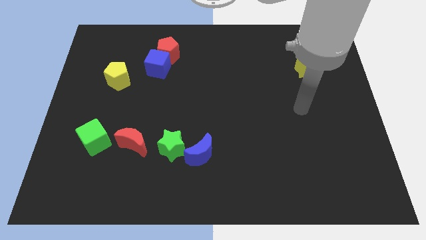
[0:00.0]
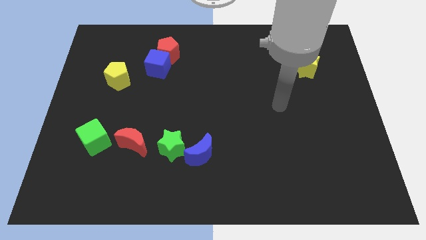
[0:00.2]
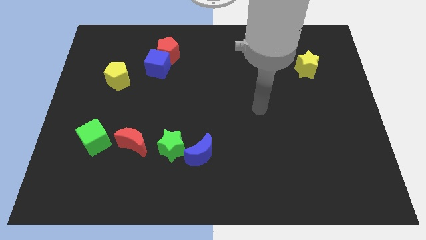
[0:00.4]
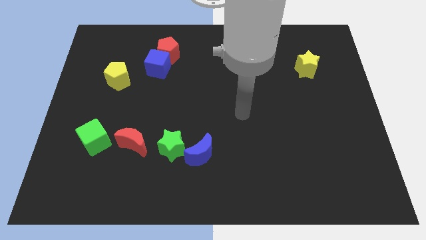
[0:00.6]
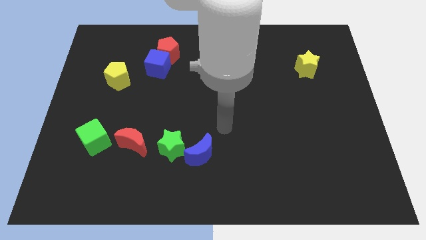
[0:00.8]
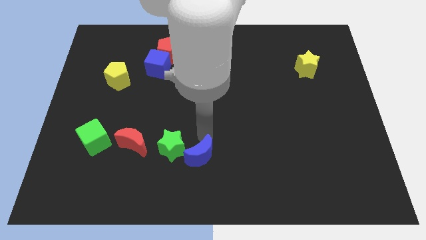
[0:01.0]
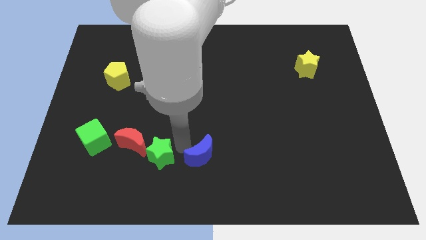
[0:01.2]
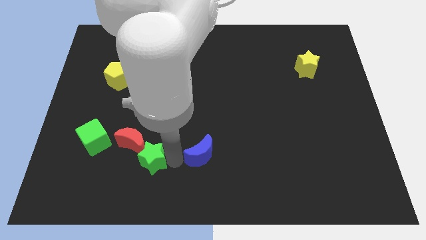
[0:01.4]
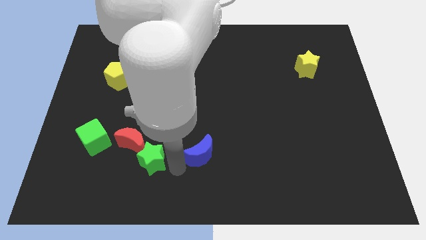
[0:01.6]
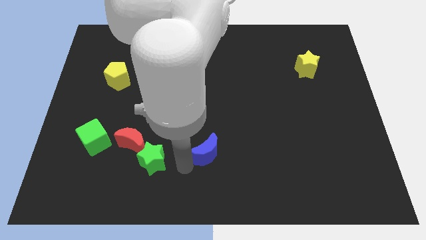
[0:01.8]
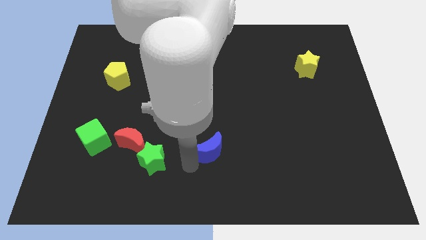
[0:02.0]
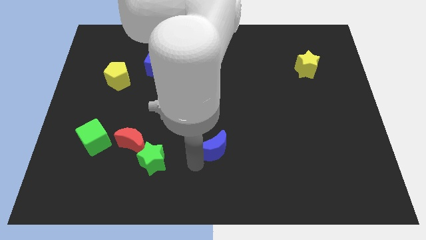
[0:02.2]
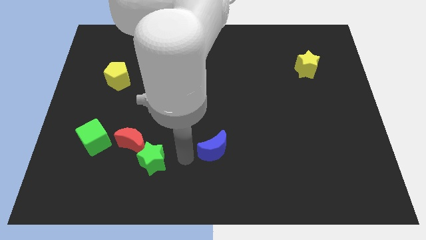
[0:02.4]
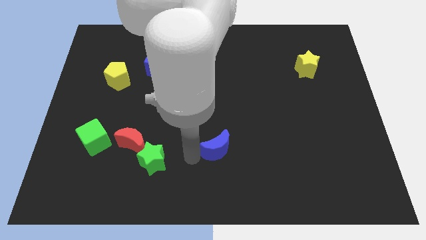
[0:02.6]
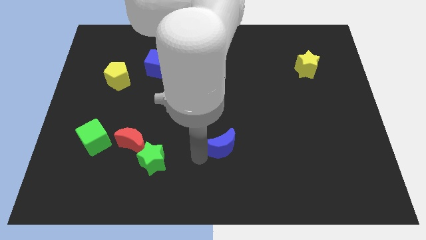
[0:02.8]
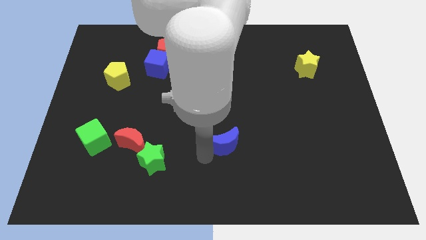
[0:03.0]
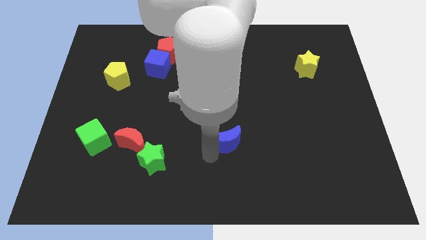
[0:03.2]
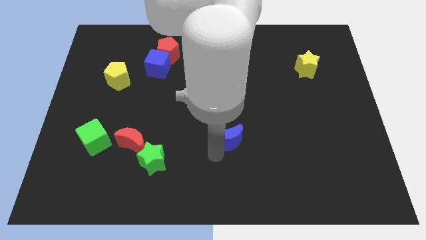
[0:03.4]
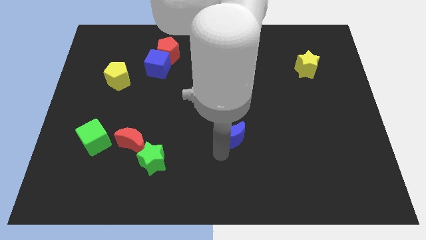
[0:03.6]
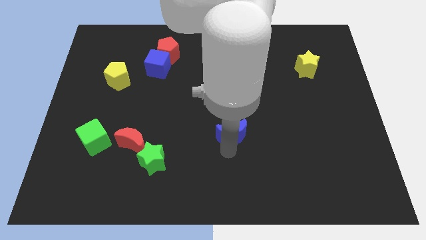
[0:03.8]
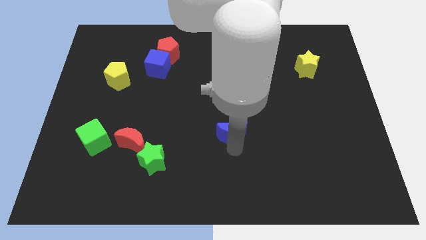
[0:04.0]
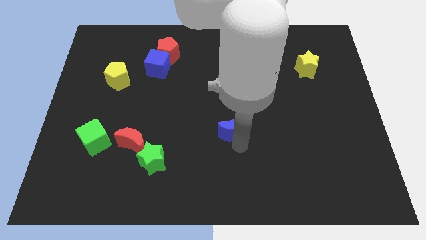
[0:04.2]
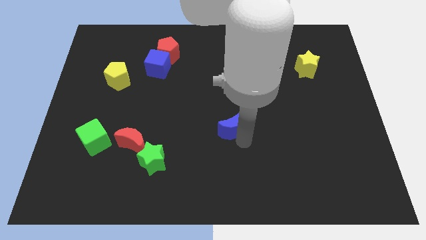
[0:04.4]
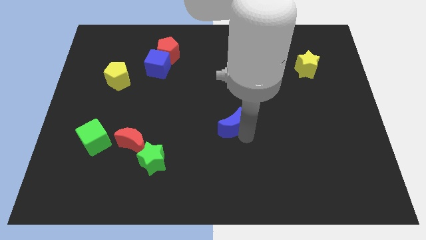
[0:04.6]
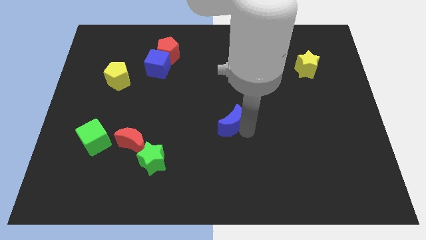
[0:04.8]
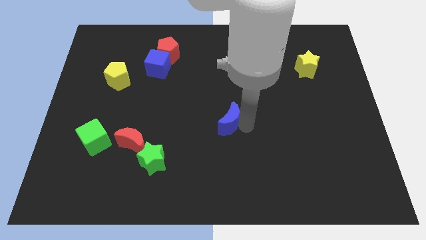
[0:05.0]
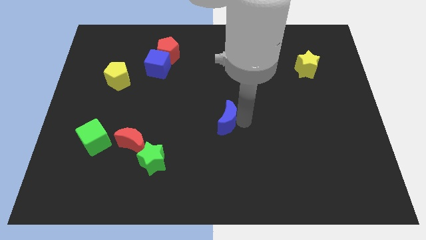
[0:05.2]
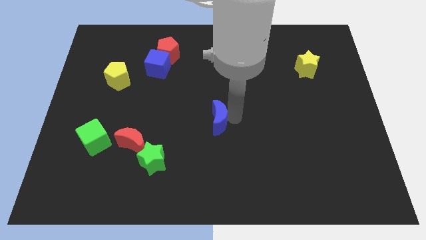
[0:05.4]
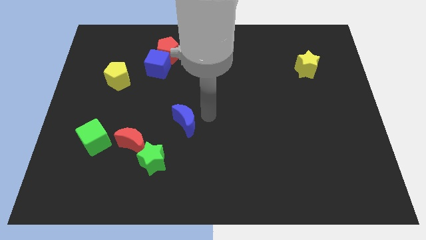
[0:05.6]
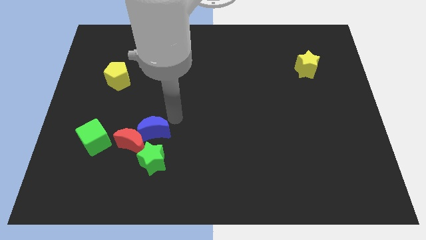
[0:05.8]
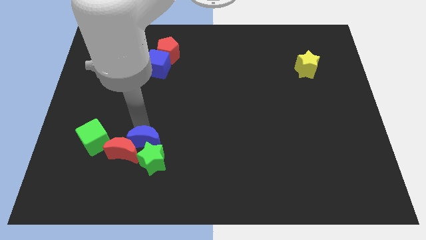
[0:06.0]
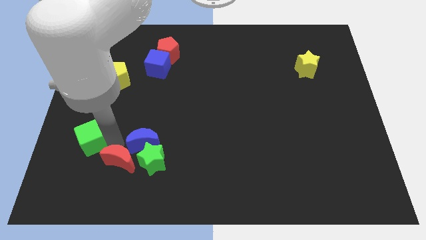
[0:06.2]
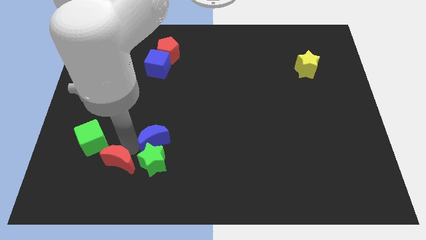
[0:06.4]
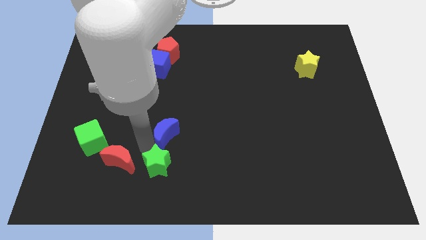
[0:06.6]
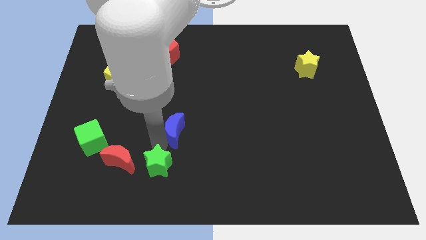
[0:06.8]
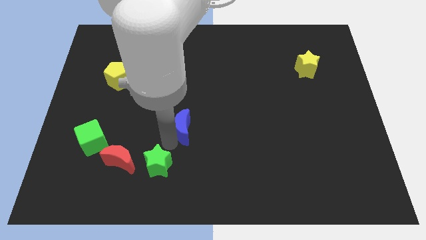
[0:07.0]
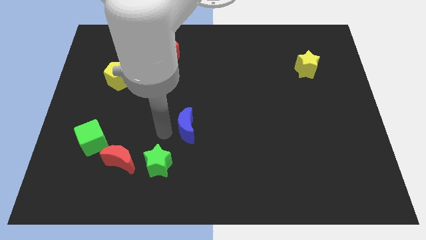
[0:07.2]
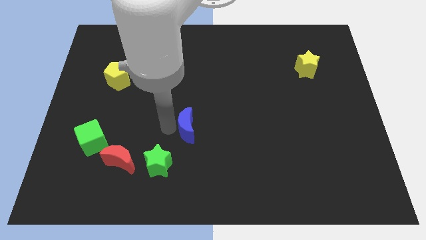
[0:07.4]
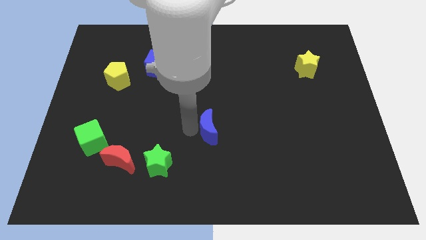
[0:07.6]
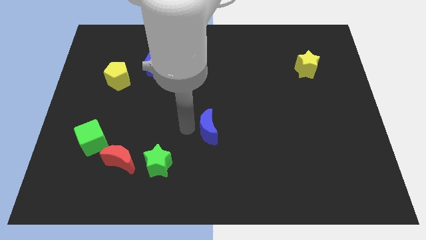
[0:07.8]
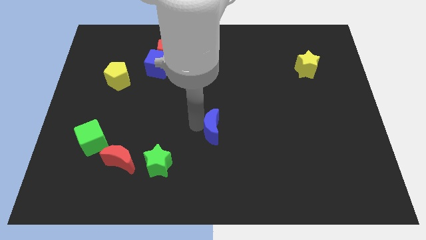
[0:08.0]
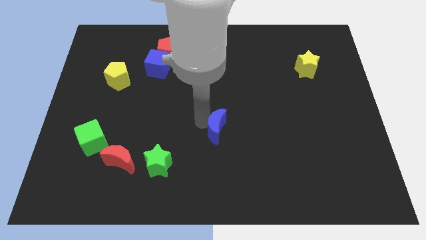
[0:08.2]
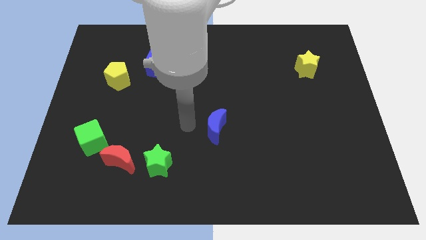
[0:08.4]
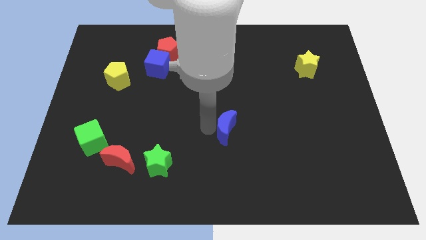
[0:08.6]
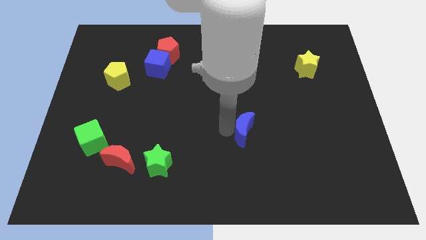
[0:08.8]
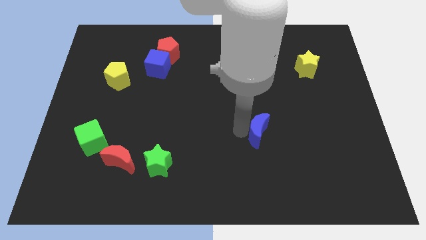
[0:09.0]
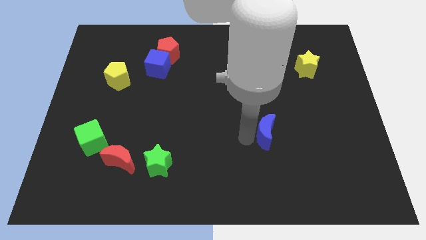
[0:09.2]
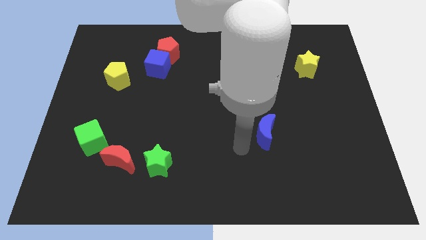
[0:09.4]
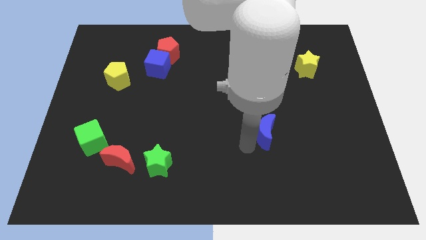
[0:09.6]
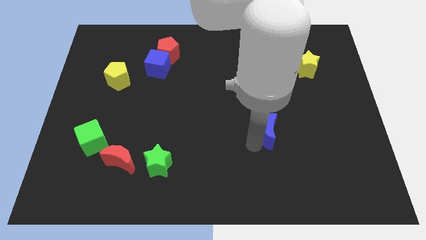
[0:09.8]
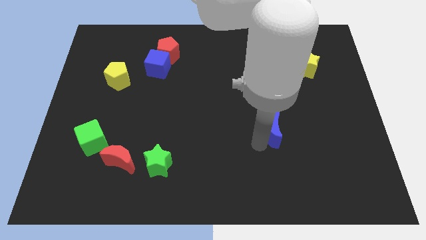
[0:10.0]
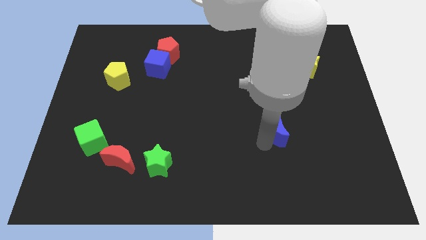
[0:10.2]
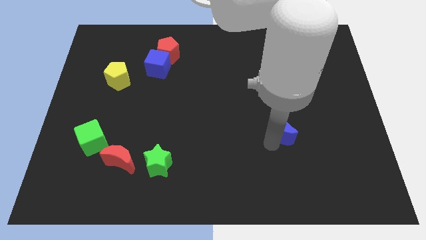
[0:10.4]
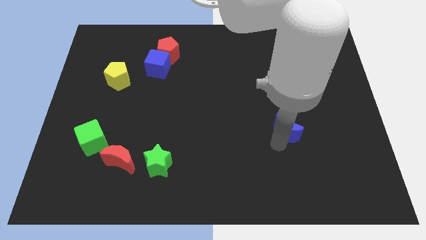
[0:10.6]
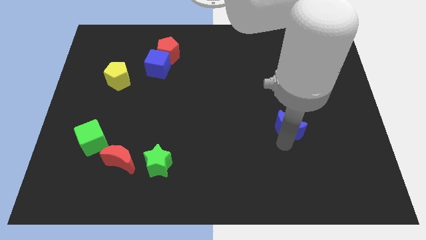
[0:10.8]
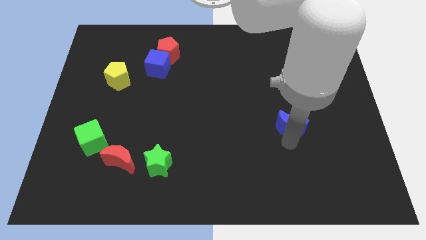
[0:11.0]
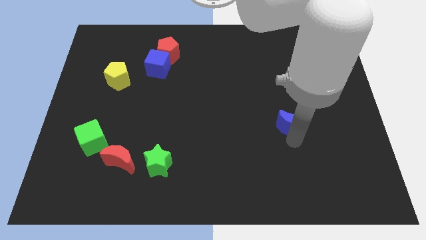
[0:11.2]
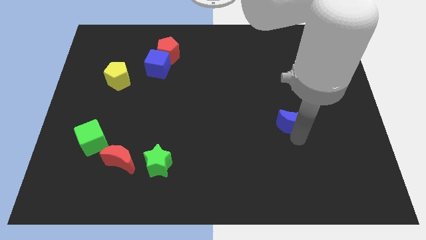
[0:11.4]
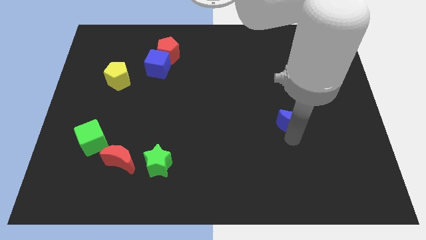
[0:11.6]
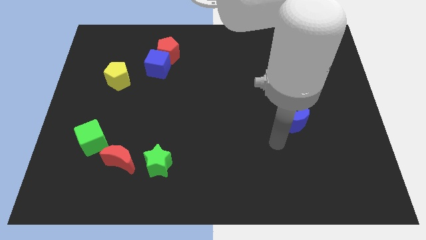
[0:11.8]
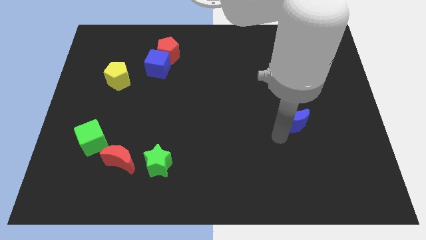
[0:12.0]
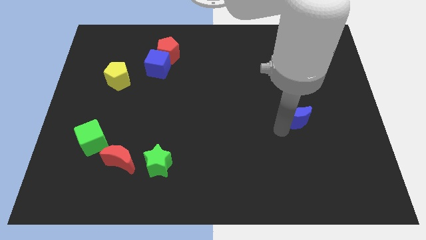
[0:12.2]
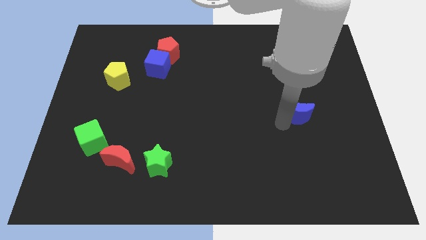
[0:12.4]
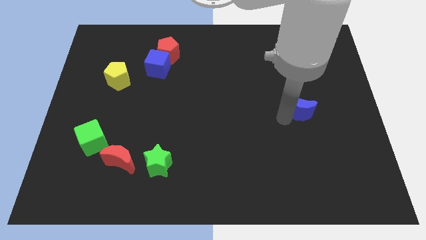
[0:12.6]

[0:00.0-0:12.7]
push the blue moon to the bottom of the yellow star

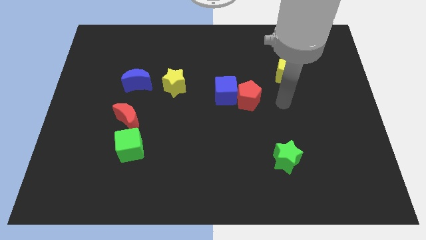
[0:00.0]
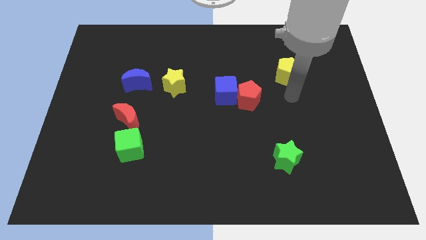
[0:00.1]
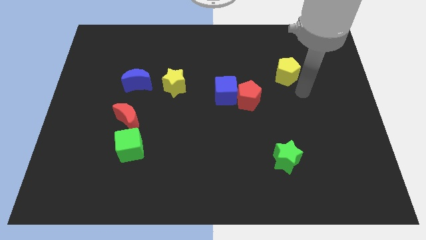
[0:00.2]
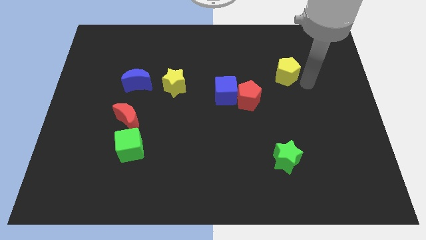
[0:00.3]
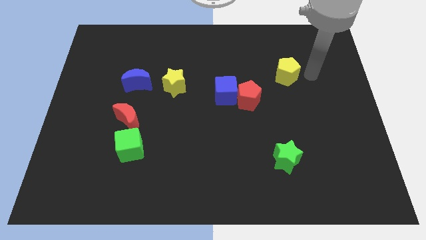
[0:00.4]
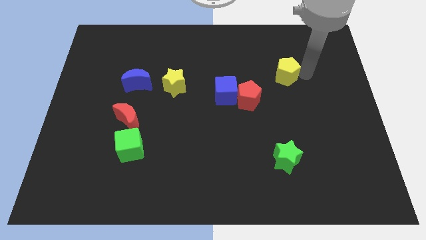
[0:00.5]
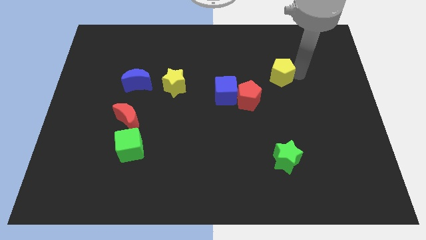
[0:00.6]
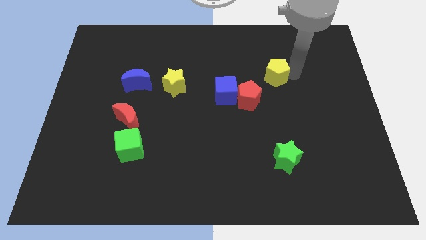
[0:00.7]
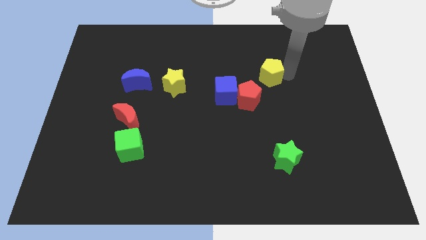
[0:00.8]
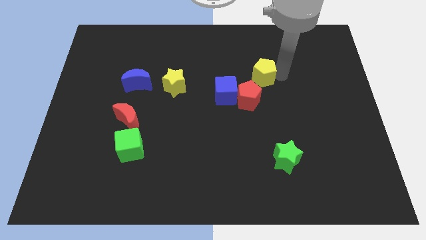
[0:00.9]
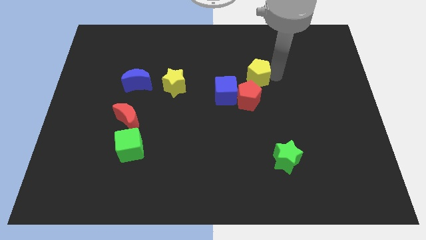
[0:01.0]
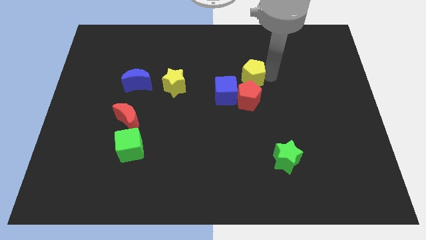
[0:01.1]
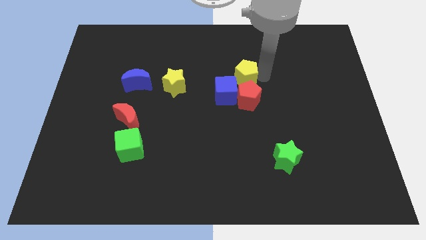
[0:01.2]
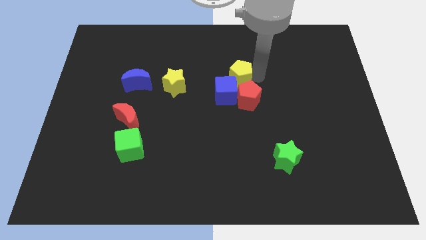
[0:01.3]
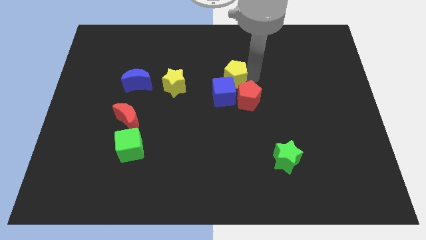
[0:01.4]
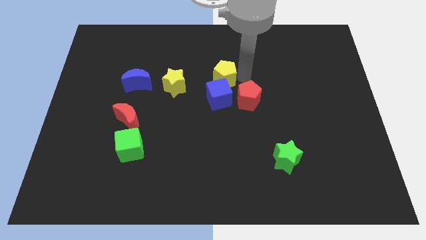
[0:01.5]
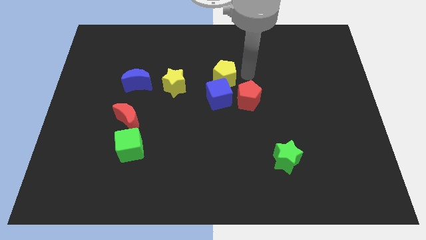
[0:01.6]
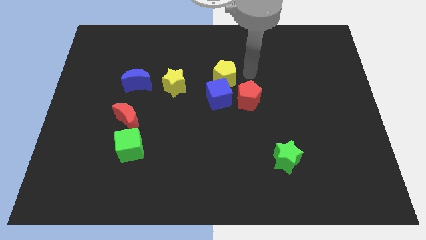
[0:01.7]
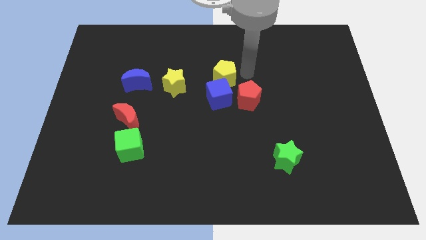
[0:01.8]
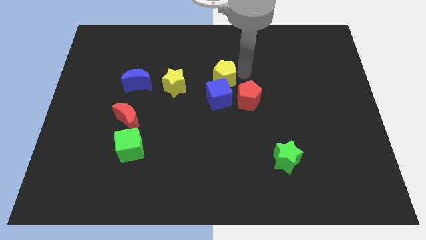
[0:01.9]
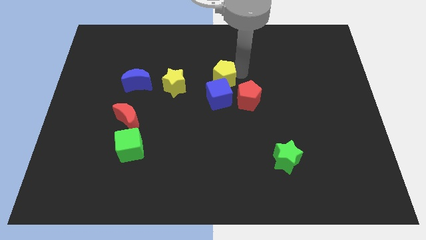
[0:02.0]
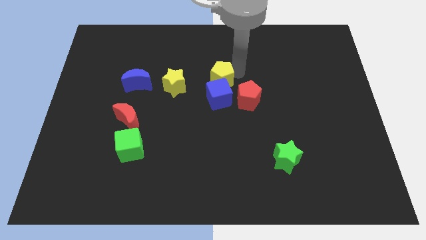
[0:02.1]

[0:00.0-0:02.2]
slide the yellow pentagon to the top left side of the blue cube
